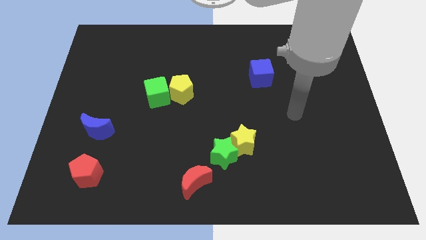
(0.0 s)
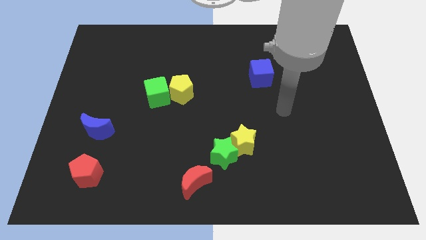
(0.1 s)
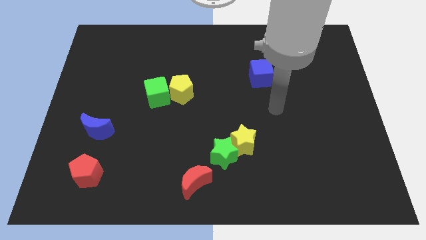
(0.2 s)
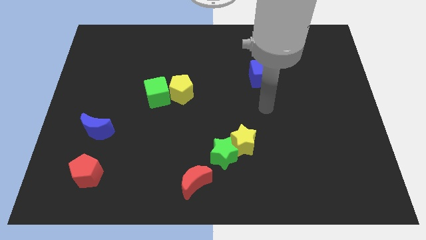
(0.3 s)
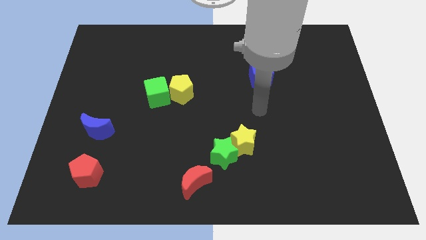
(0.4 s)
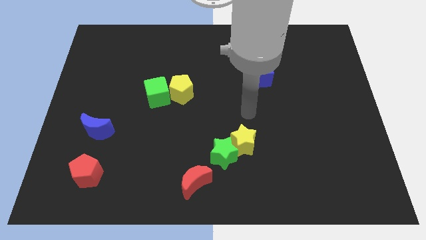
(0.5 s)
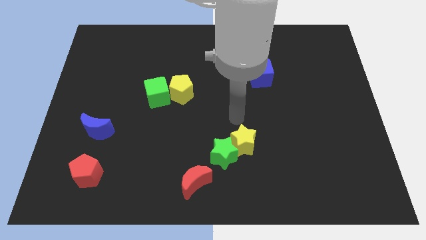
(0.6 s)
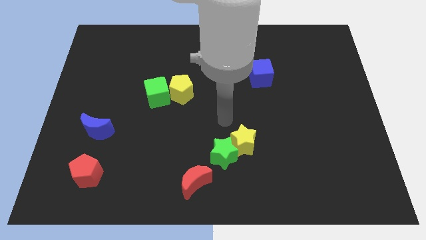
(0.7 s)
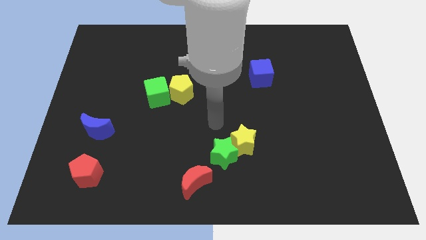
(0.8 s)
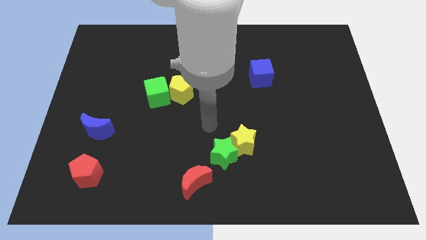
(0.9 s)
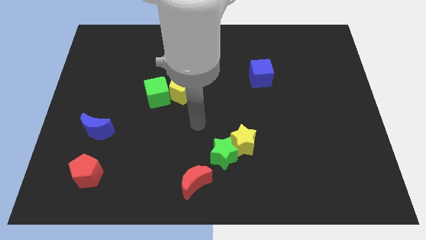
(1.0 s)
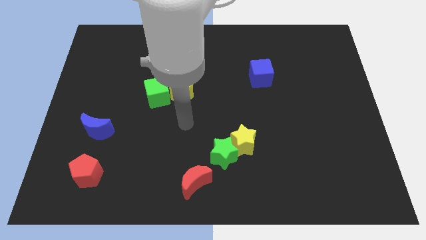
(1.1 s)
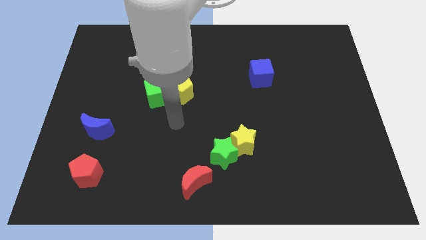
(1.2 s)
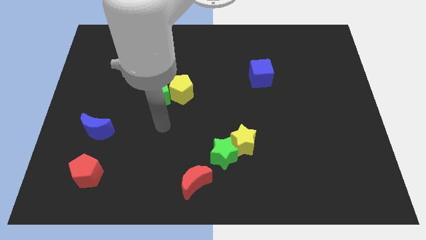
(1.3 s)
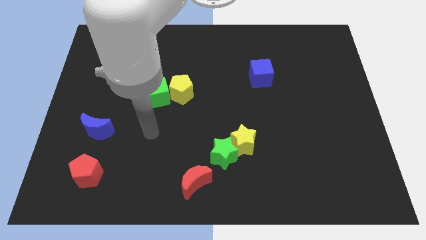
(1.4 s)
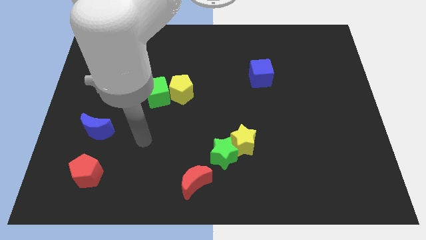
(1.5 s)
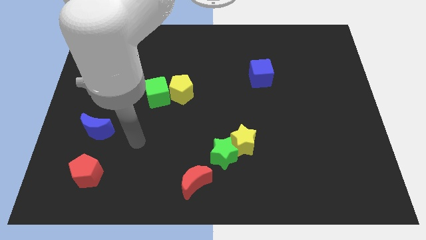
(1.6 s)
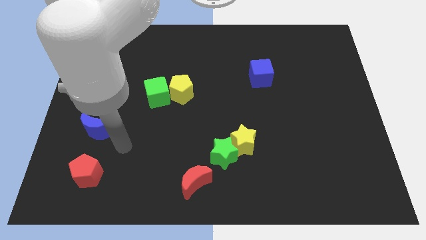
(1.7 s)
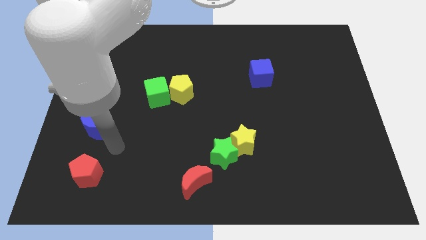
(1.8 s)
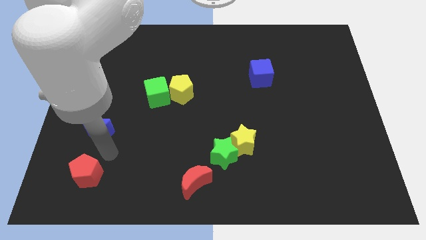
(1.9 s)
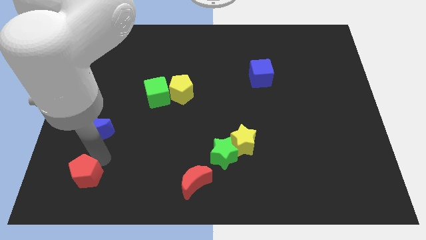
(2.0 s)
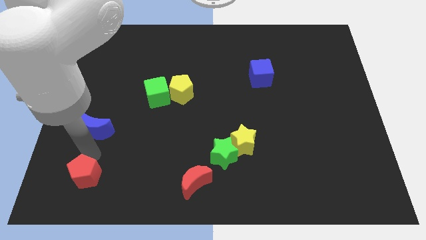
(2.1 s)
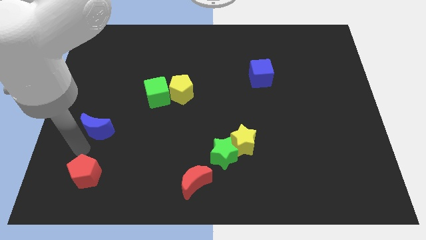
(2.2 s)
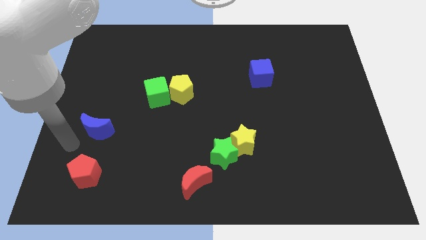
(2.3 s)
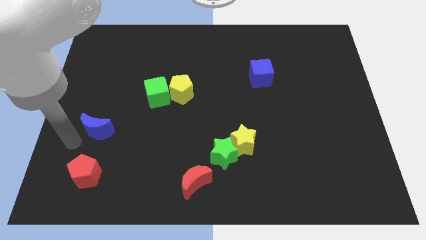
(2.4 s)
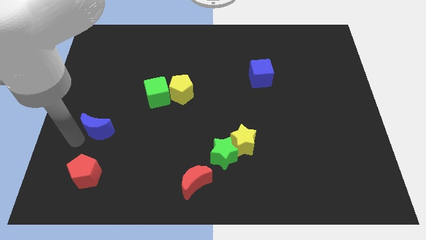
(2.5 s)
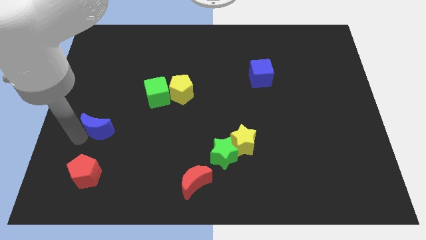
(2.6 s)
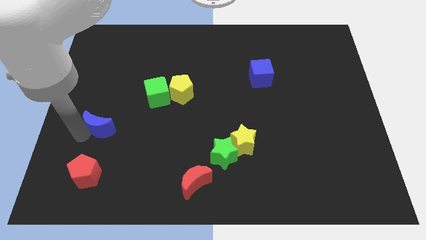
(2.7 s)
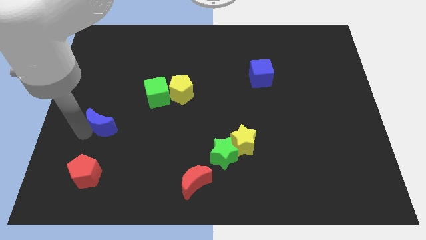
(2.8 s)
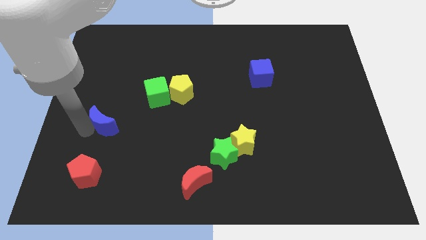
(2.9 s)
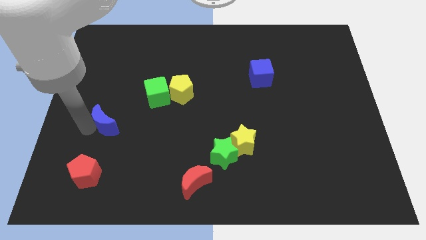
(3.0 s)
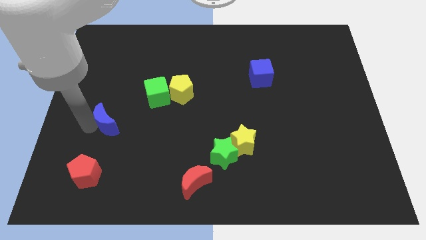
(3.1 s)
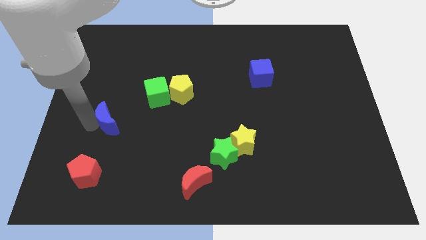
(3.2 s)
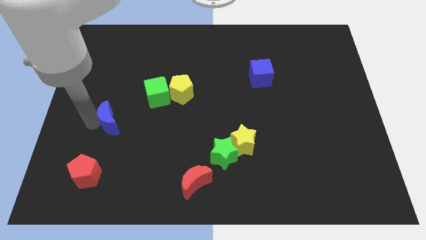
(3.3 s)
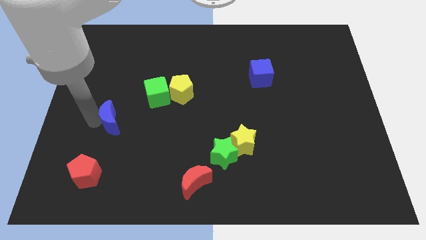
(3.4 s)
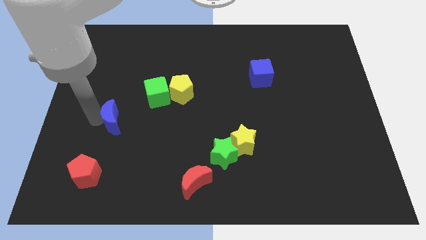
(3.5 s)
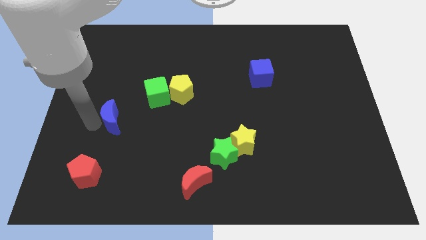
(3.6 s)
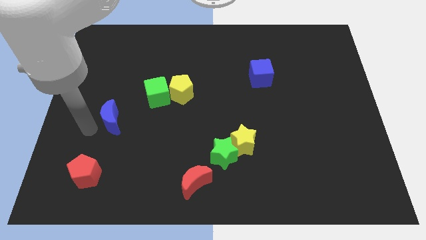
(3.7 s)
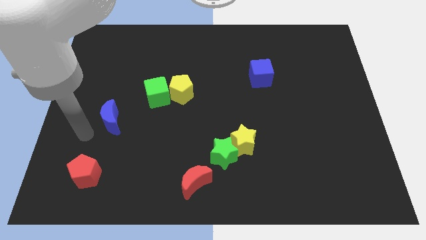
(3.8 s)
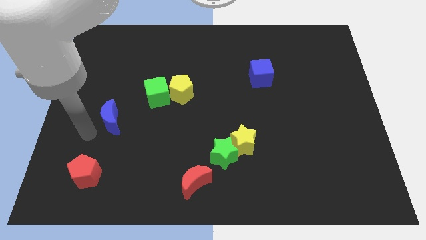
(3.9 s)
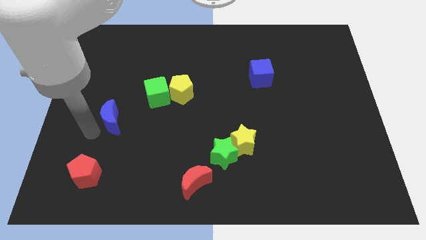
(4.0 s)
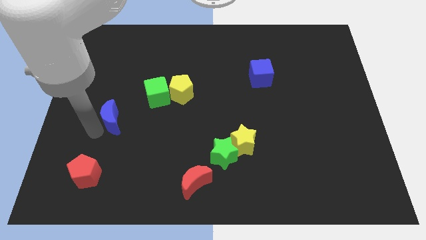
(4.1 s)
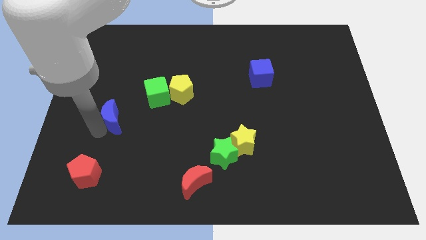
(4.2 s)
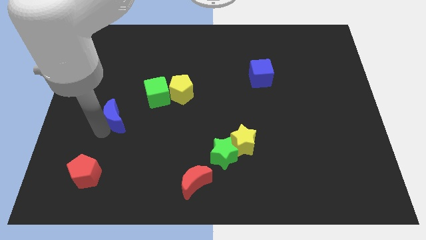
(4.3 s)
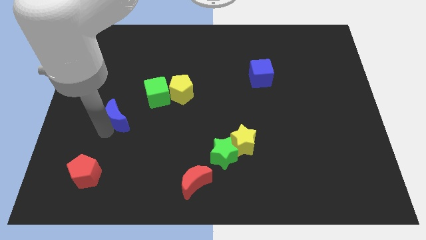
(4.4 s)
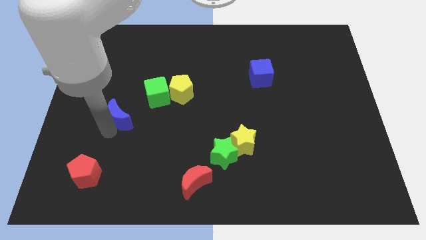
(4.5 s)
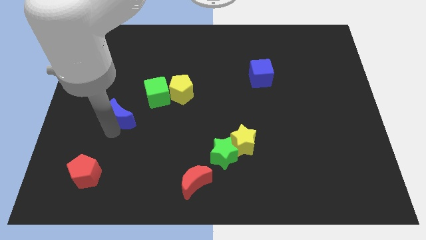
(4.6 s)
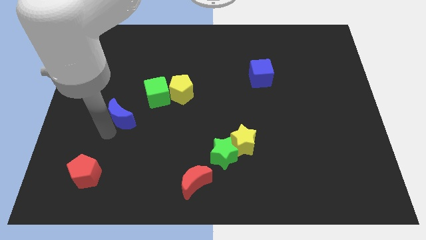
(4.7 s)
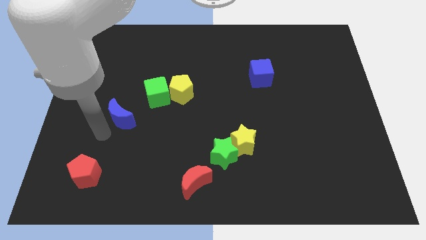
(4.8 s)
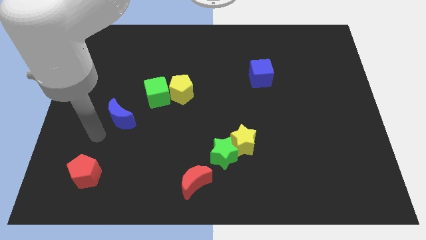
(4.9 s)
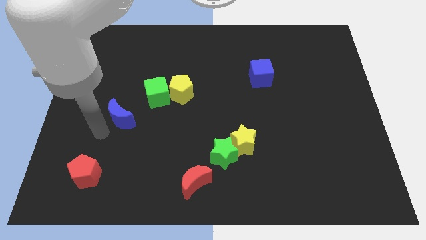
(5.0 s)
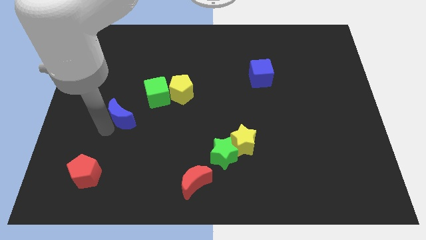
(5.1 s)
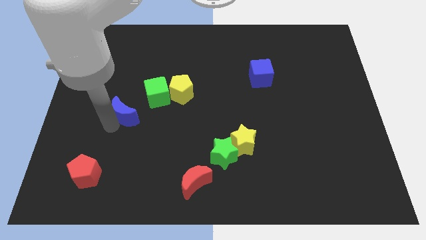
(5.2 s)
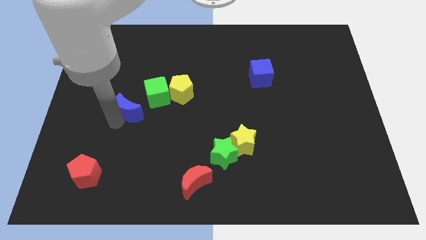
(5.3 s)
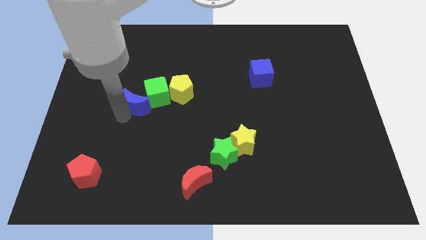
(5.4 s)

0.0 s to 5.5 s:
put the blue moon next to the green cube

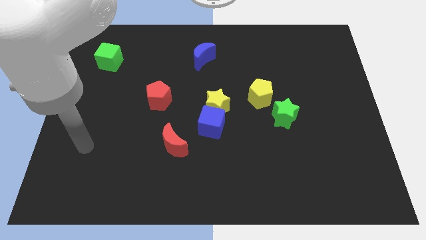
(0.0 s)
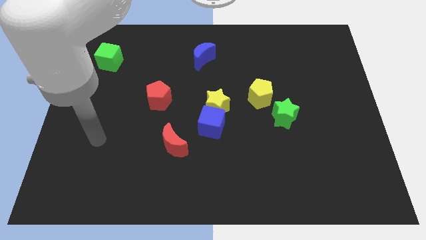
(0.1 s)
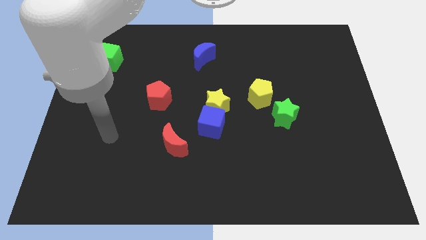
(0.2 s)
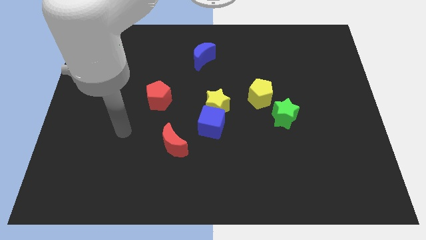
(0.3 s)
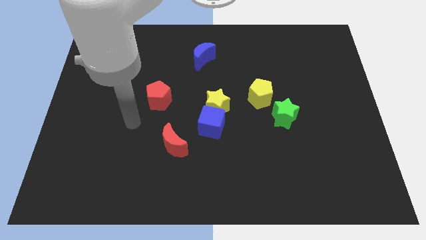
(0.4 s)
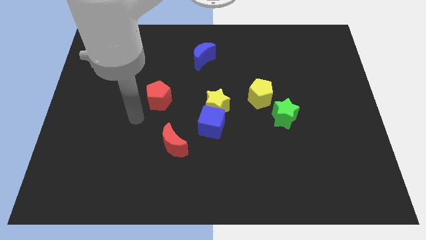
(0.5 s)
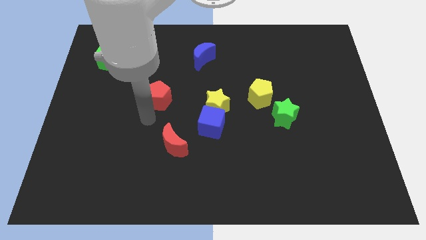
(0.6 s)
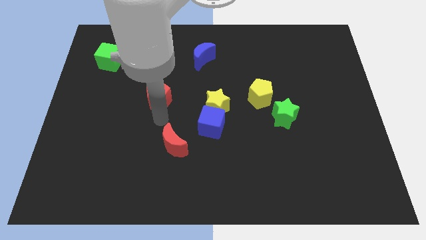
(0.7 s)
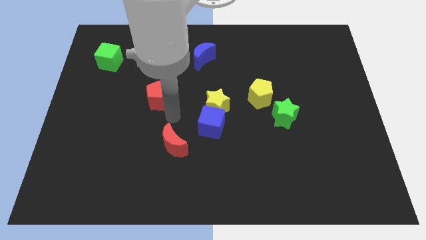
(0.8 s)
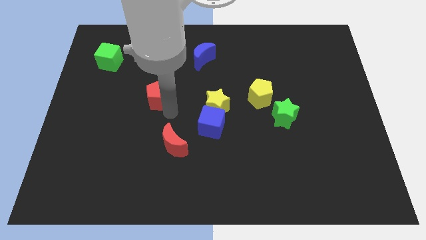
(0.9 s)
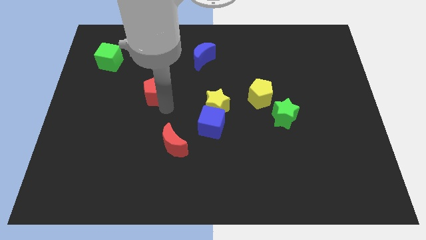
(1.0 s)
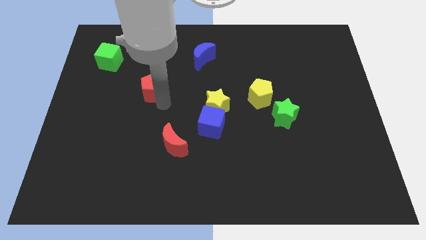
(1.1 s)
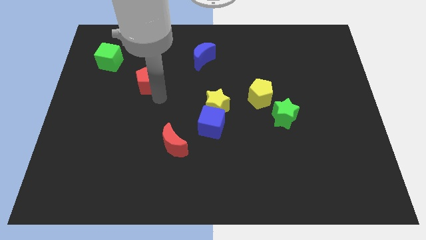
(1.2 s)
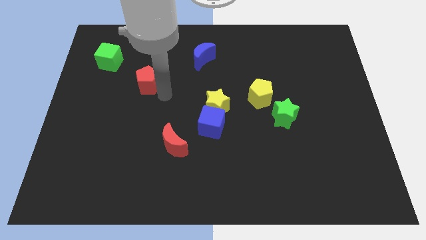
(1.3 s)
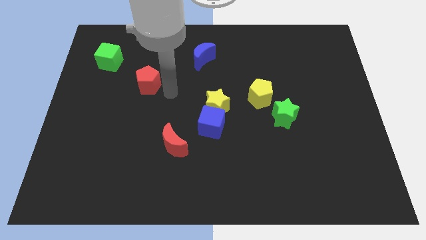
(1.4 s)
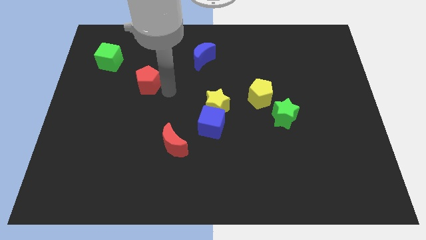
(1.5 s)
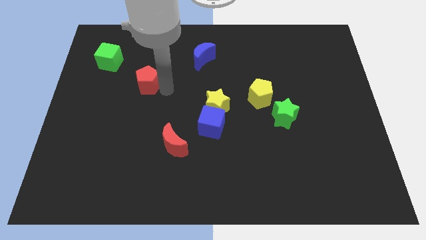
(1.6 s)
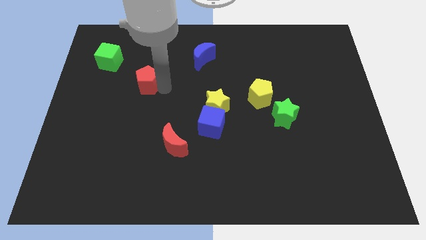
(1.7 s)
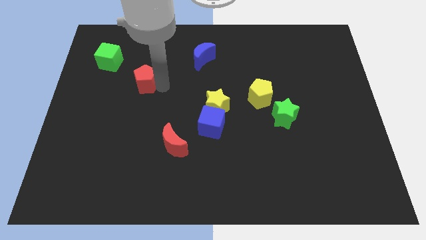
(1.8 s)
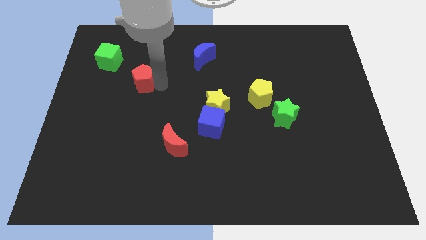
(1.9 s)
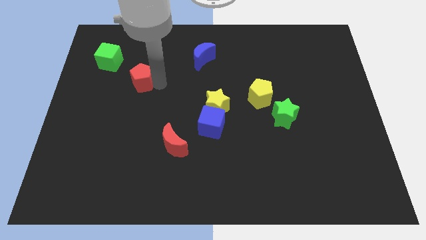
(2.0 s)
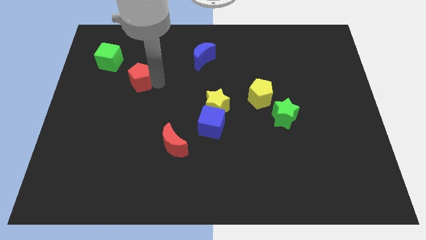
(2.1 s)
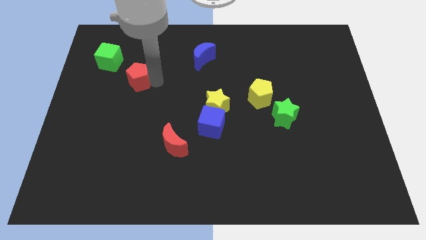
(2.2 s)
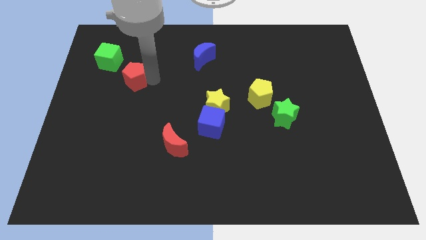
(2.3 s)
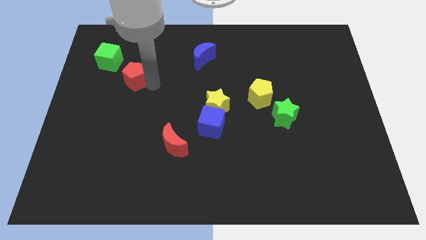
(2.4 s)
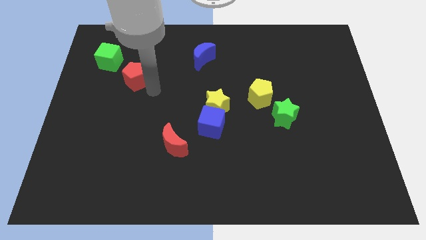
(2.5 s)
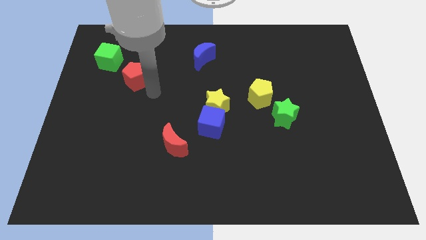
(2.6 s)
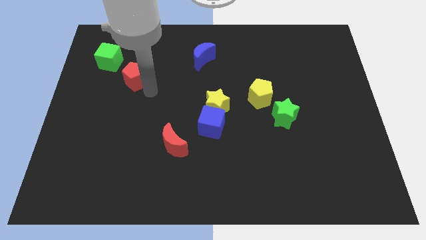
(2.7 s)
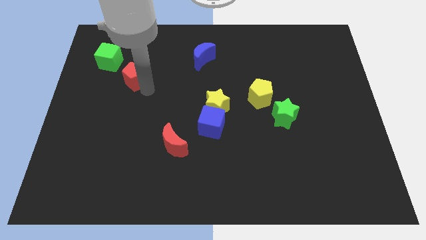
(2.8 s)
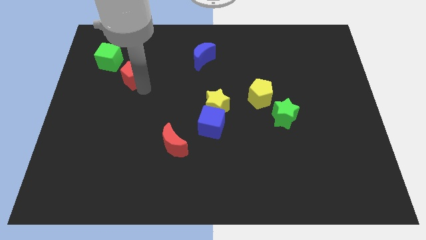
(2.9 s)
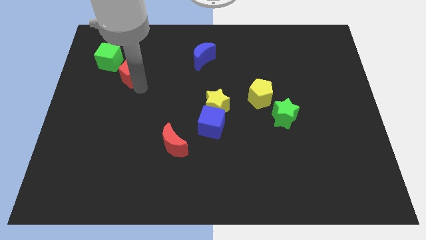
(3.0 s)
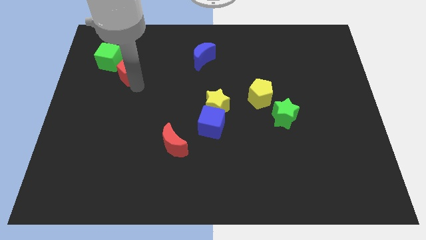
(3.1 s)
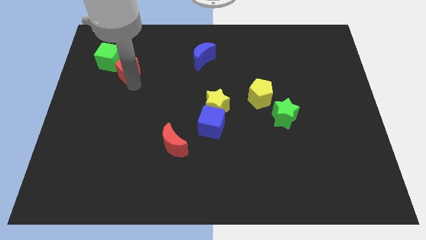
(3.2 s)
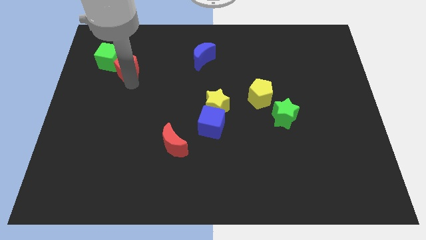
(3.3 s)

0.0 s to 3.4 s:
push the red pentagon next to the green cube
